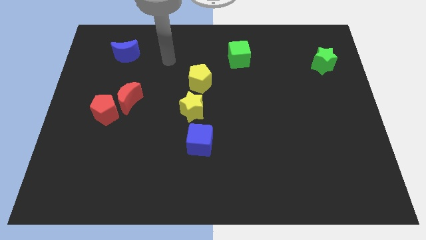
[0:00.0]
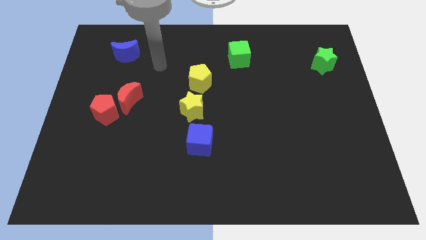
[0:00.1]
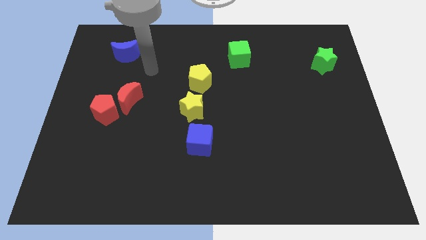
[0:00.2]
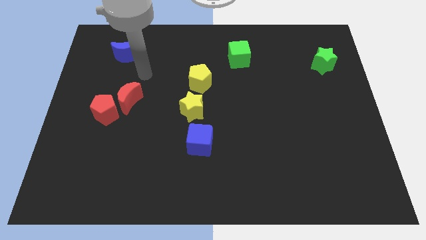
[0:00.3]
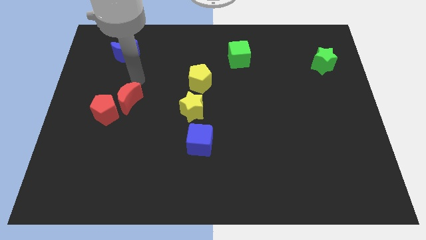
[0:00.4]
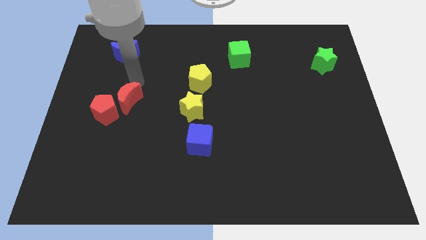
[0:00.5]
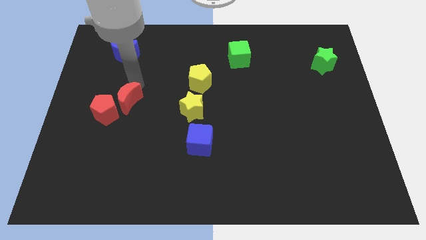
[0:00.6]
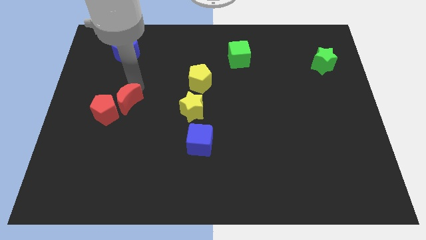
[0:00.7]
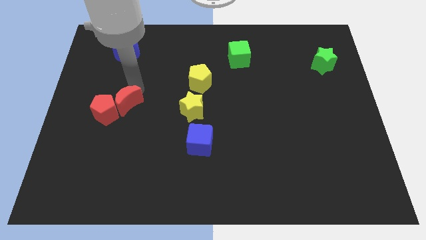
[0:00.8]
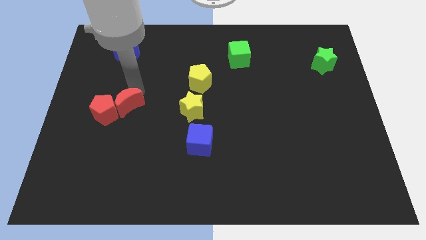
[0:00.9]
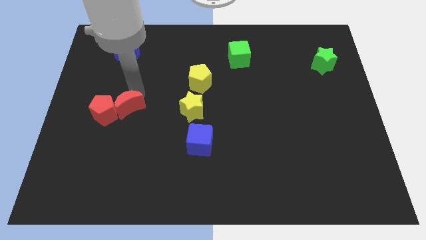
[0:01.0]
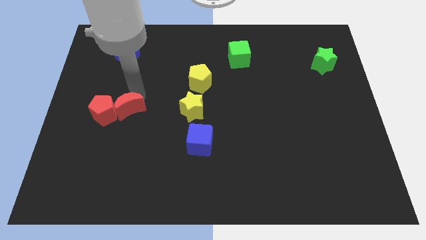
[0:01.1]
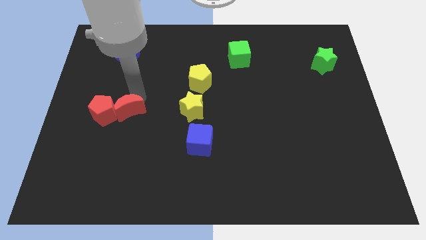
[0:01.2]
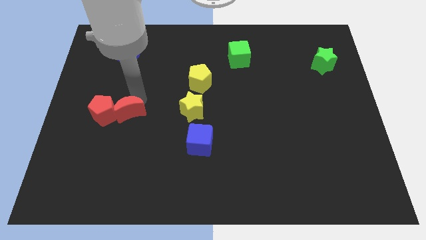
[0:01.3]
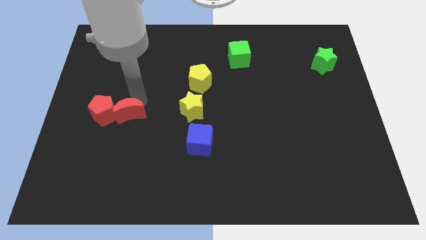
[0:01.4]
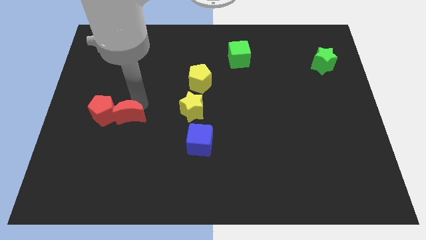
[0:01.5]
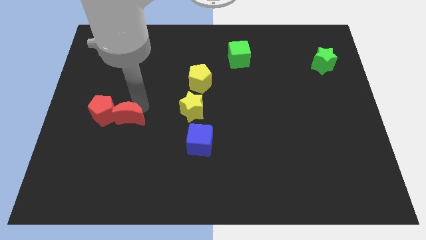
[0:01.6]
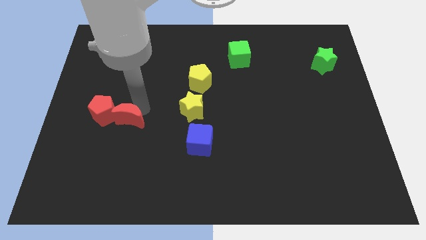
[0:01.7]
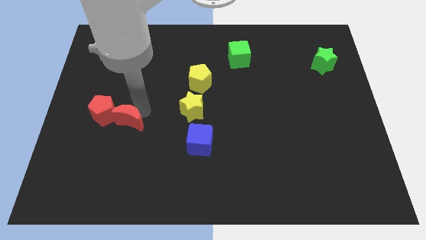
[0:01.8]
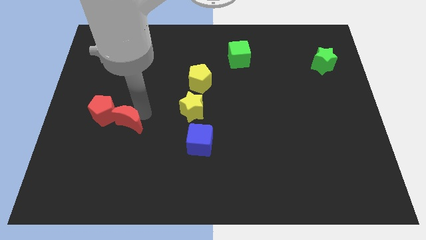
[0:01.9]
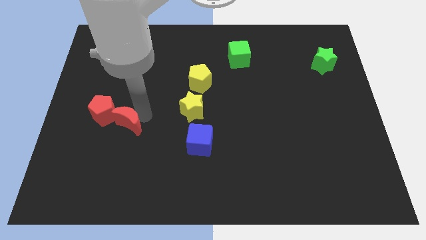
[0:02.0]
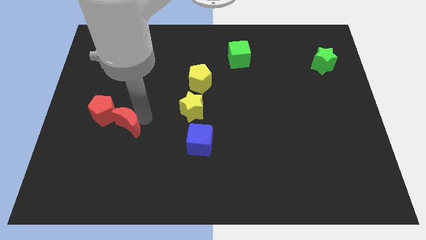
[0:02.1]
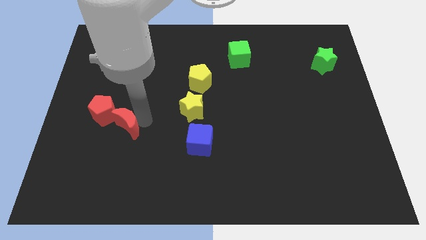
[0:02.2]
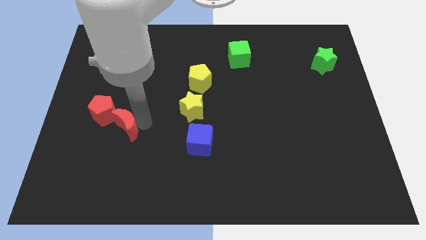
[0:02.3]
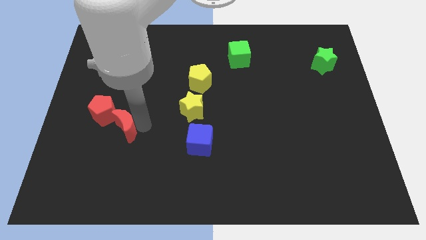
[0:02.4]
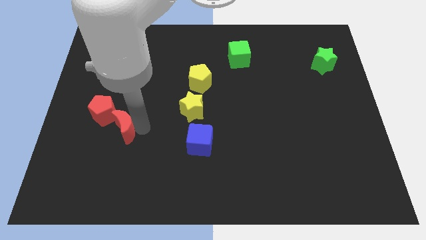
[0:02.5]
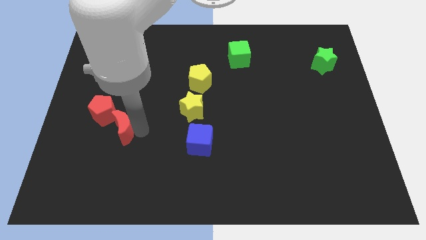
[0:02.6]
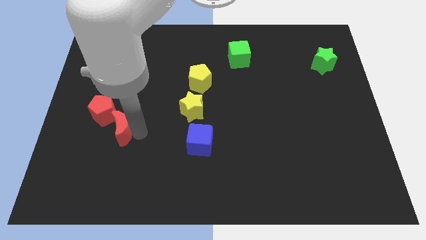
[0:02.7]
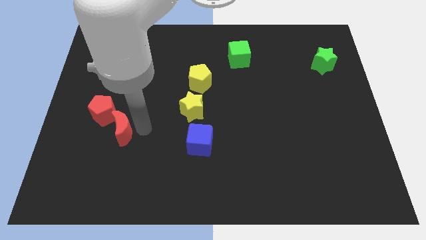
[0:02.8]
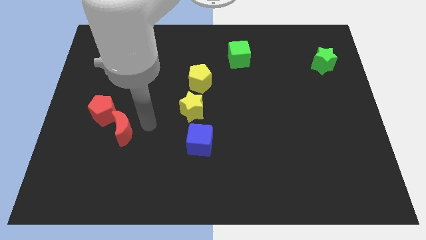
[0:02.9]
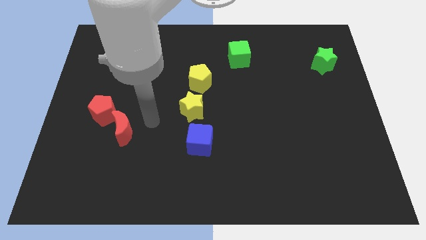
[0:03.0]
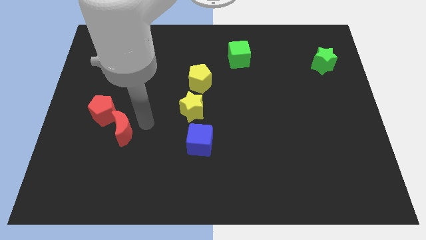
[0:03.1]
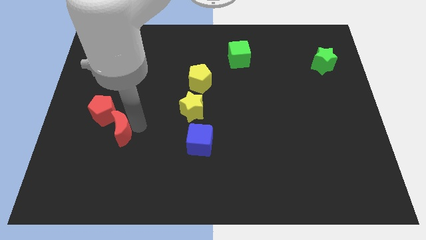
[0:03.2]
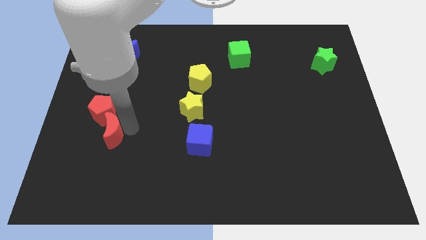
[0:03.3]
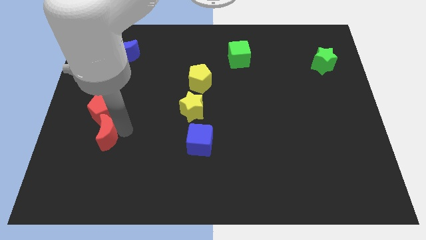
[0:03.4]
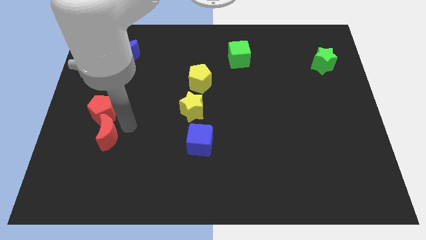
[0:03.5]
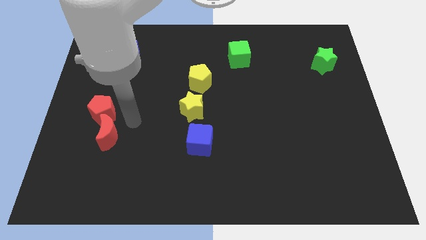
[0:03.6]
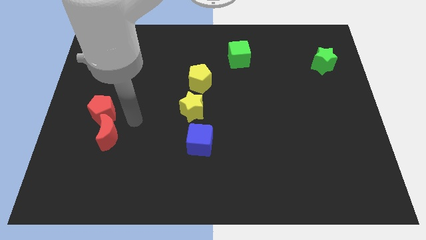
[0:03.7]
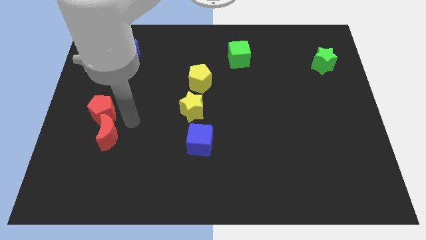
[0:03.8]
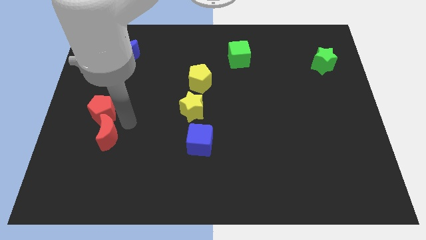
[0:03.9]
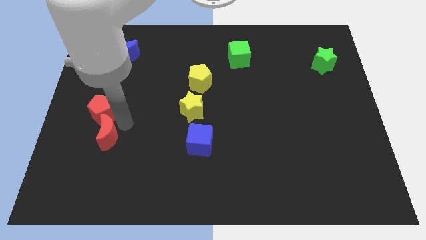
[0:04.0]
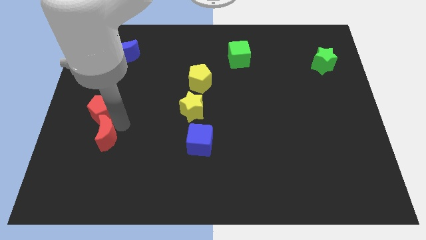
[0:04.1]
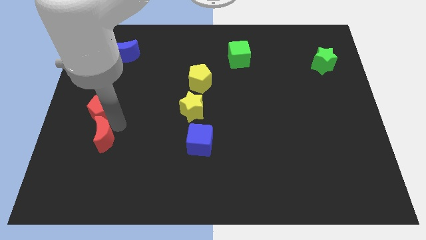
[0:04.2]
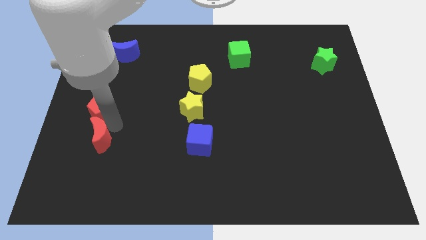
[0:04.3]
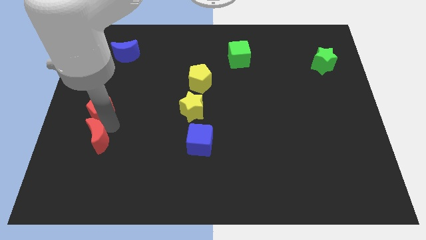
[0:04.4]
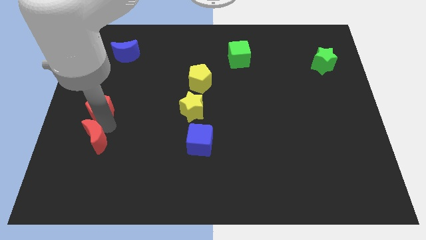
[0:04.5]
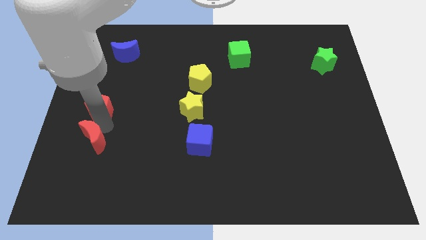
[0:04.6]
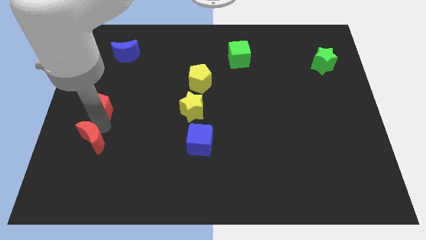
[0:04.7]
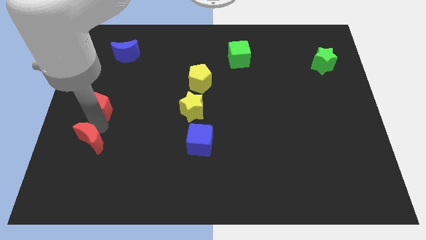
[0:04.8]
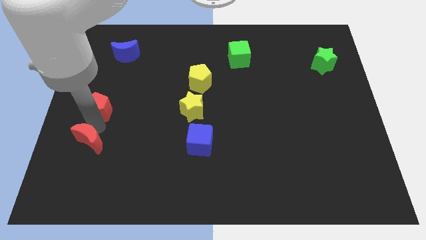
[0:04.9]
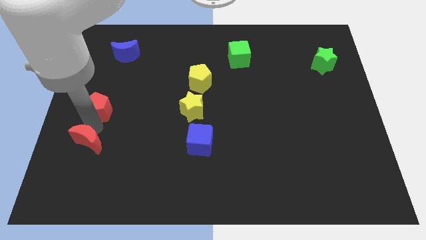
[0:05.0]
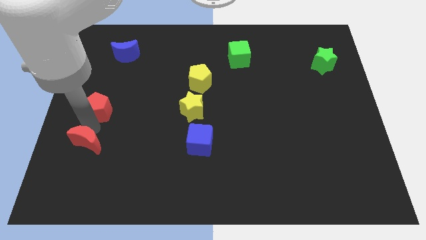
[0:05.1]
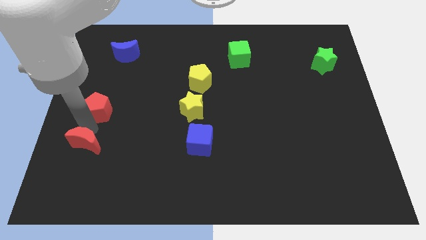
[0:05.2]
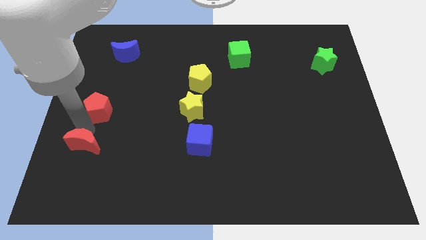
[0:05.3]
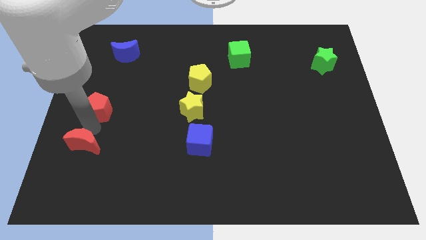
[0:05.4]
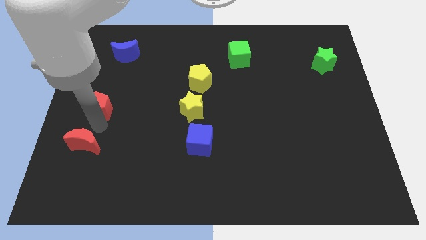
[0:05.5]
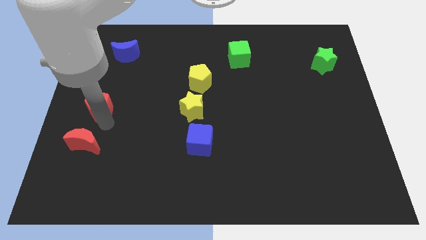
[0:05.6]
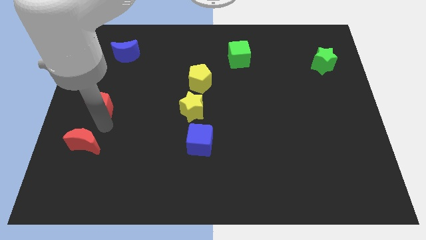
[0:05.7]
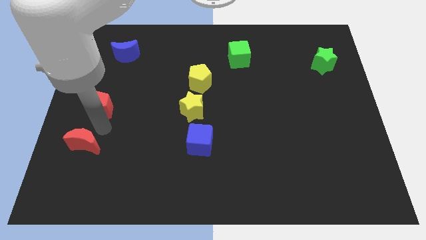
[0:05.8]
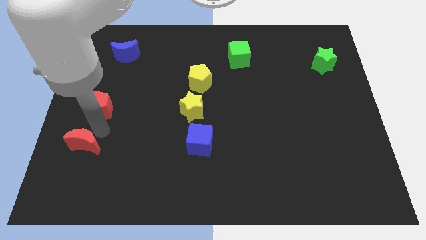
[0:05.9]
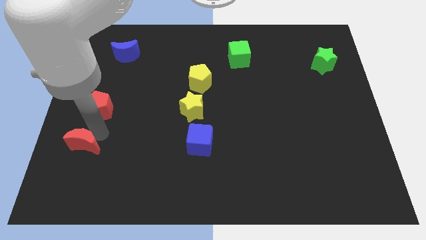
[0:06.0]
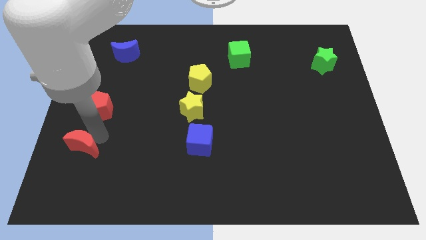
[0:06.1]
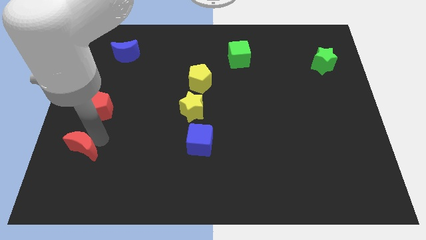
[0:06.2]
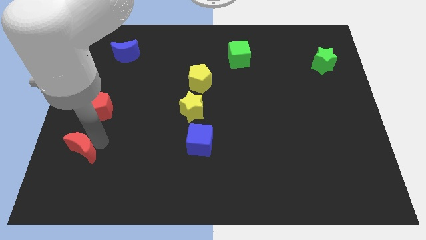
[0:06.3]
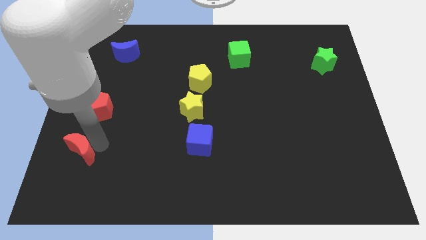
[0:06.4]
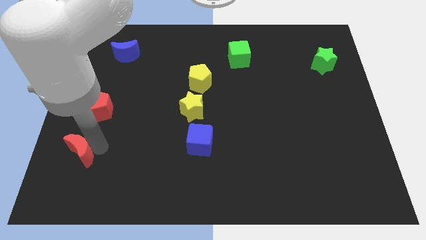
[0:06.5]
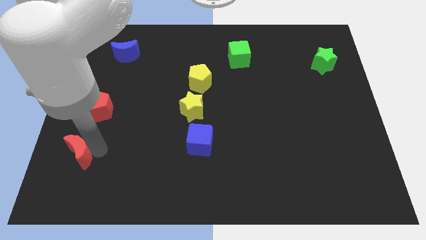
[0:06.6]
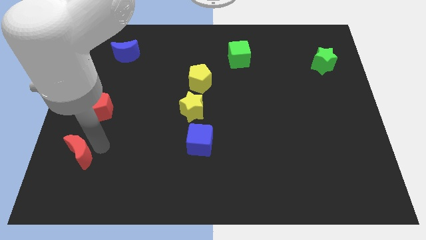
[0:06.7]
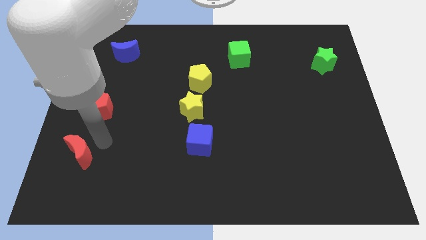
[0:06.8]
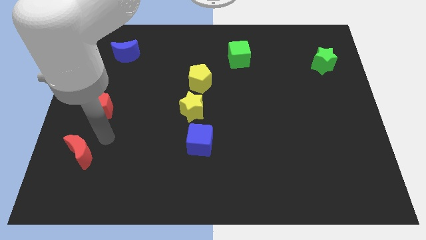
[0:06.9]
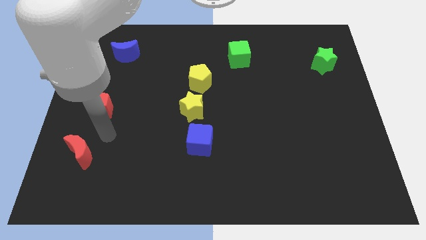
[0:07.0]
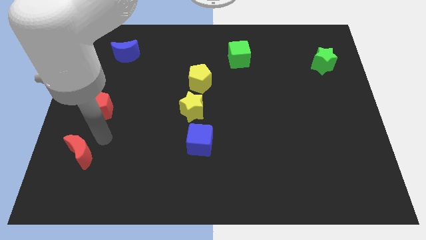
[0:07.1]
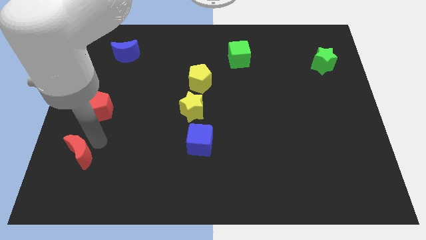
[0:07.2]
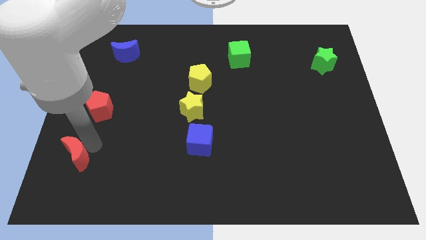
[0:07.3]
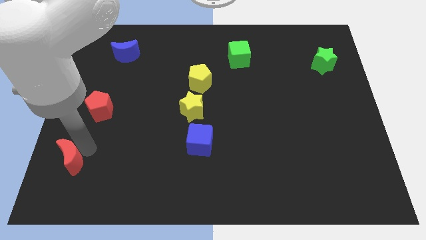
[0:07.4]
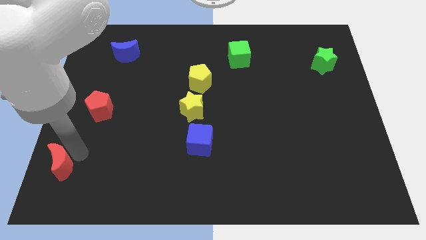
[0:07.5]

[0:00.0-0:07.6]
put the red moon to the bottom left of the board
